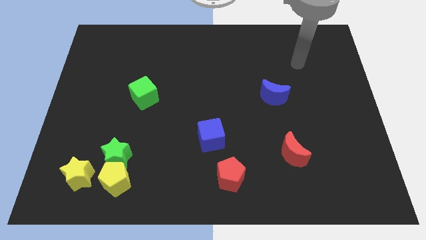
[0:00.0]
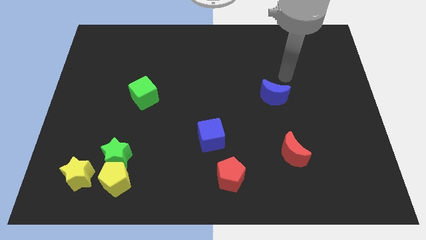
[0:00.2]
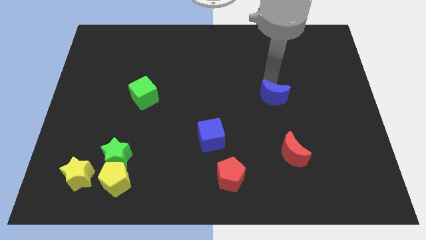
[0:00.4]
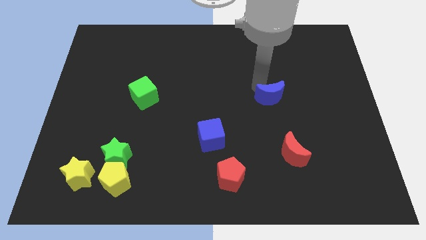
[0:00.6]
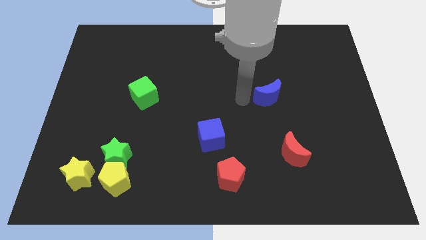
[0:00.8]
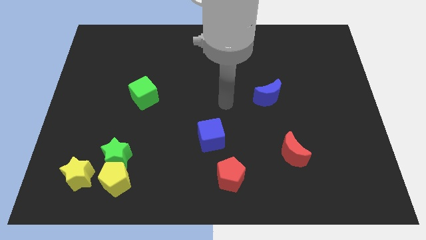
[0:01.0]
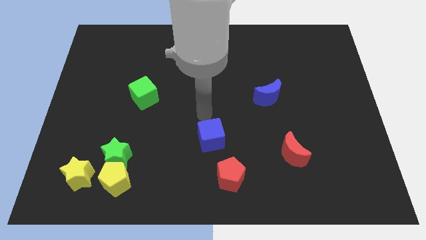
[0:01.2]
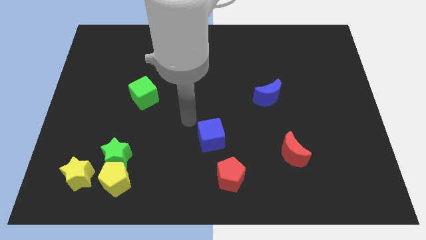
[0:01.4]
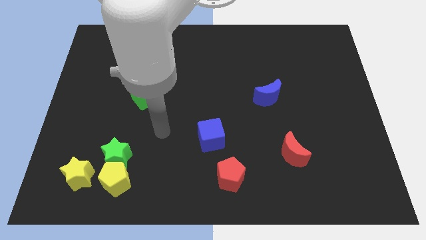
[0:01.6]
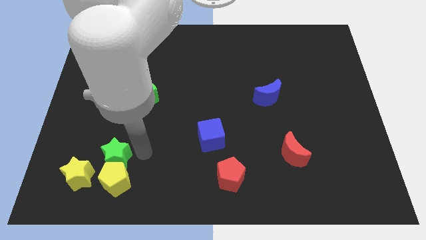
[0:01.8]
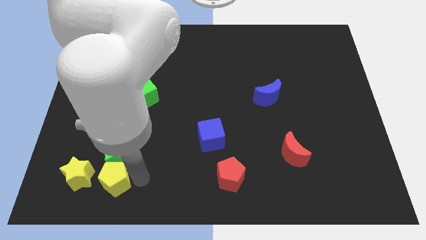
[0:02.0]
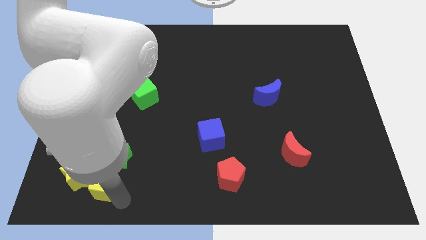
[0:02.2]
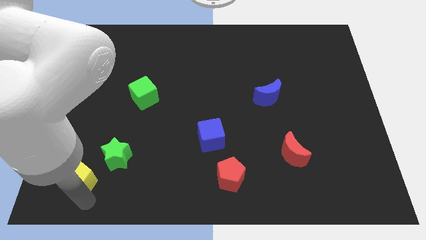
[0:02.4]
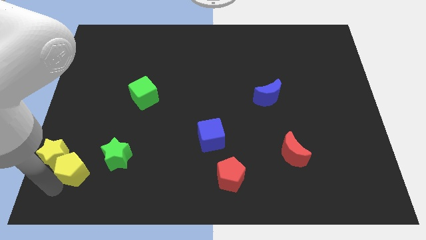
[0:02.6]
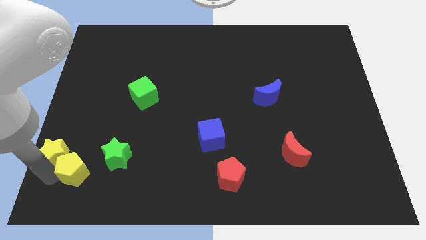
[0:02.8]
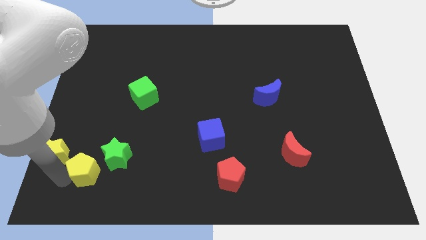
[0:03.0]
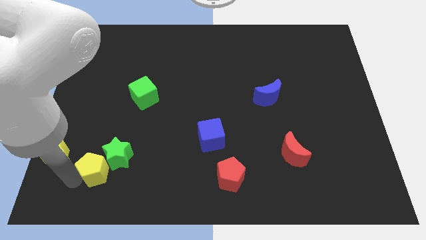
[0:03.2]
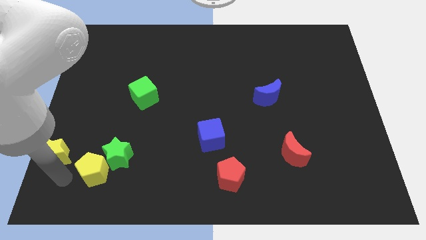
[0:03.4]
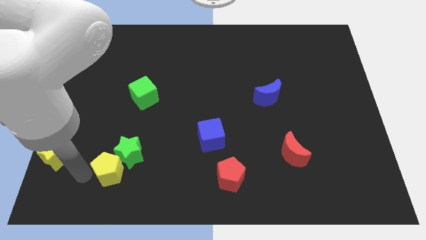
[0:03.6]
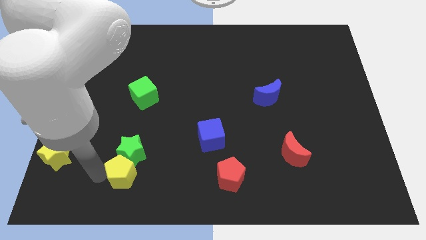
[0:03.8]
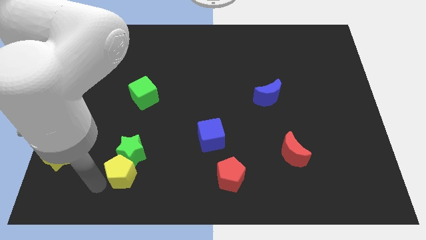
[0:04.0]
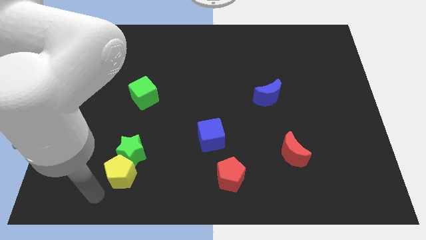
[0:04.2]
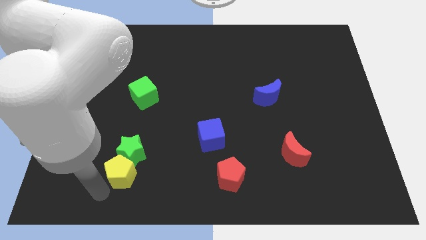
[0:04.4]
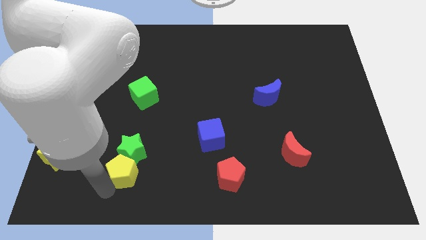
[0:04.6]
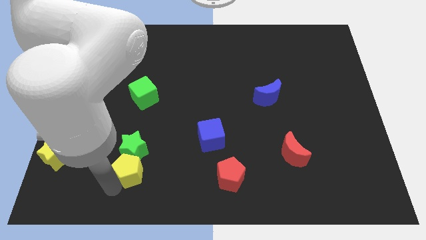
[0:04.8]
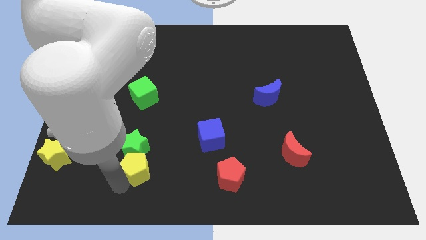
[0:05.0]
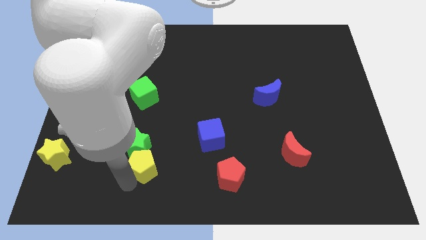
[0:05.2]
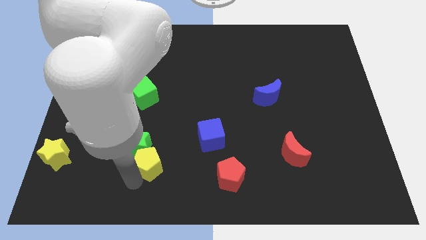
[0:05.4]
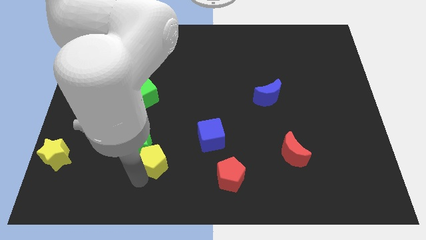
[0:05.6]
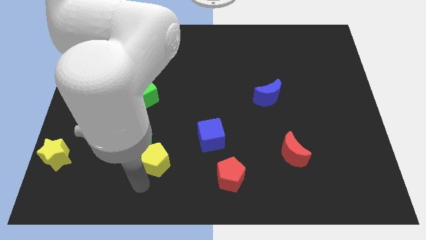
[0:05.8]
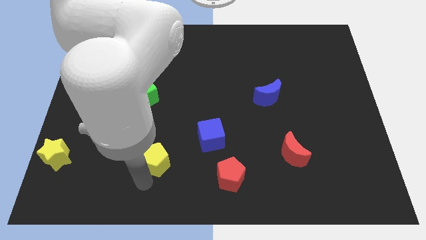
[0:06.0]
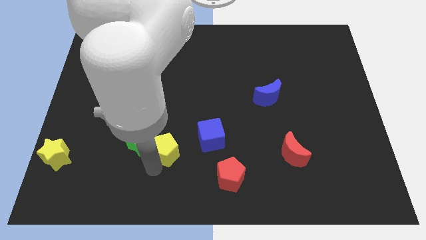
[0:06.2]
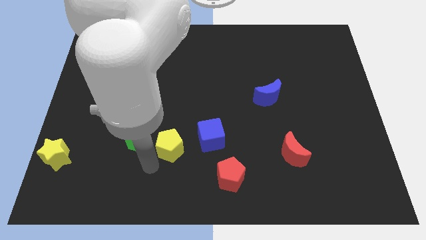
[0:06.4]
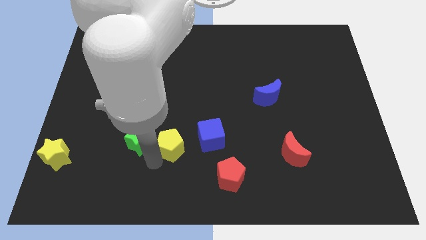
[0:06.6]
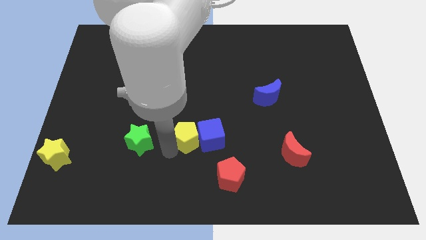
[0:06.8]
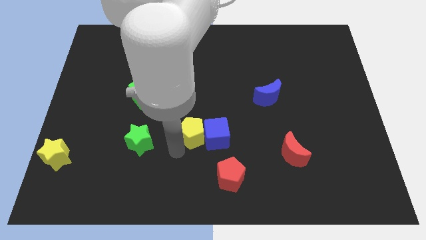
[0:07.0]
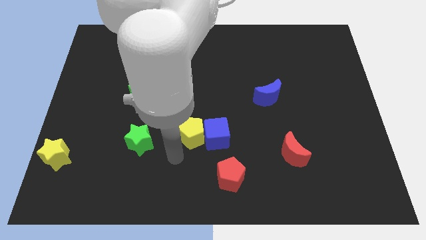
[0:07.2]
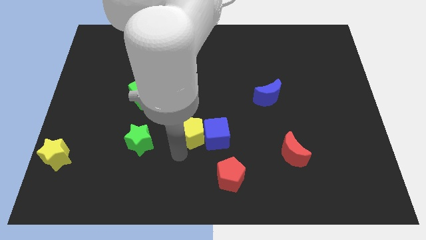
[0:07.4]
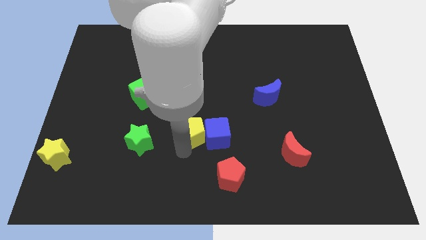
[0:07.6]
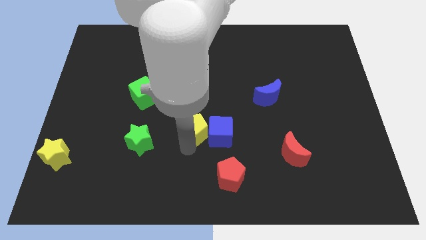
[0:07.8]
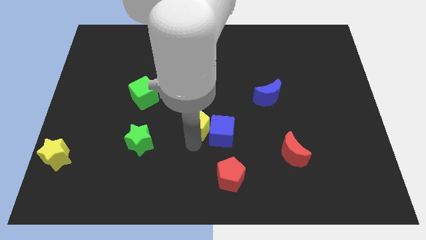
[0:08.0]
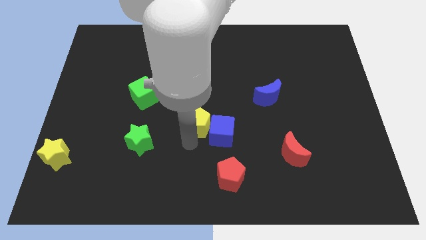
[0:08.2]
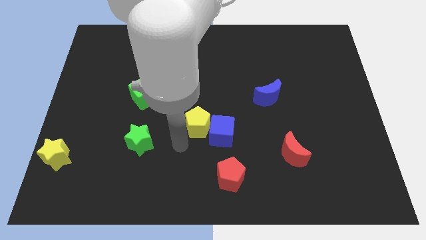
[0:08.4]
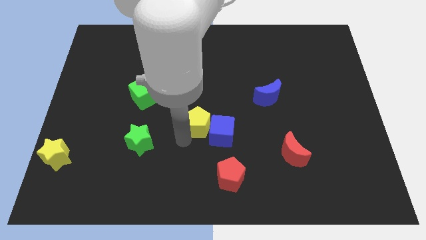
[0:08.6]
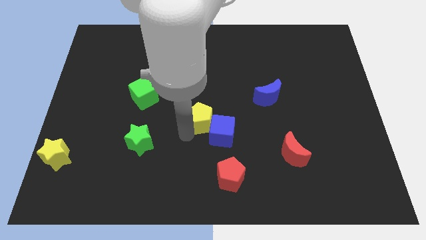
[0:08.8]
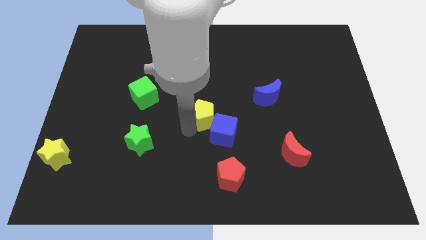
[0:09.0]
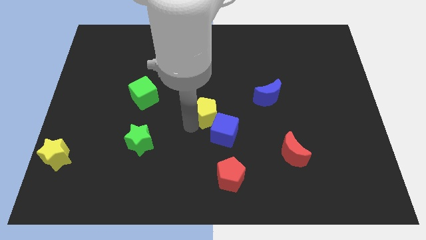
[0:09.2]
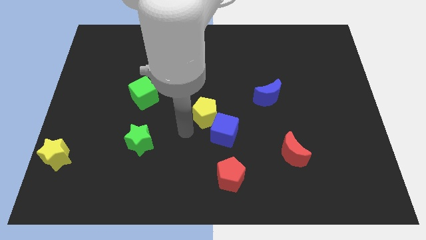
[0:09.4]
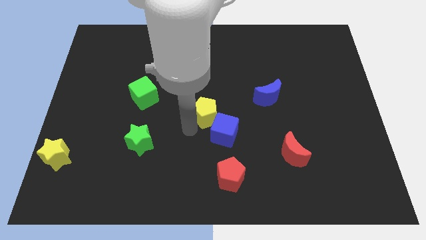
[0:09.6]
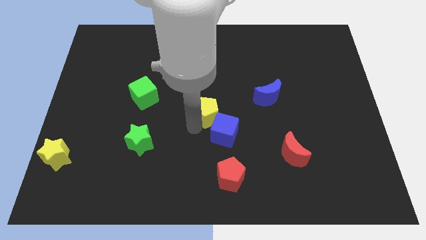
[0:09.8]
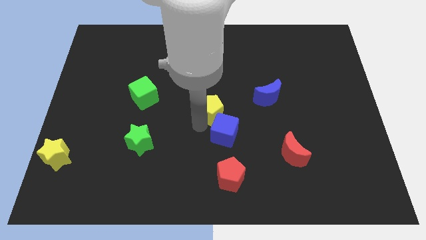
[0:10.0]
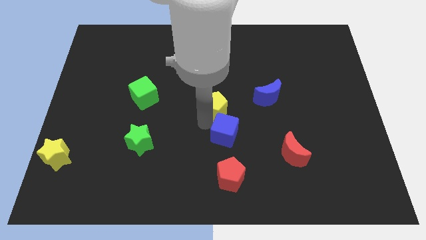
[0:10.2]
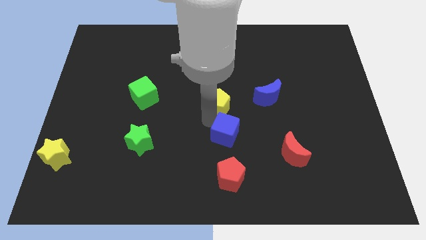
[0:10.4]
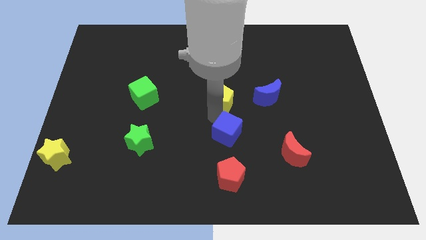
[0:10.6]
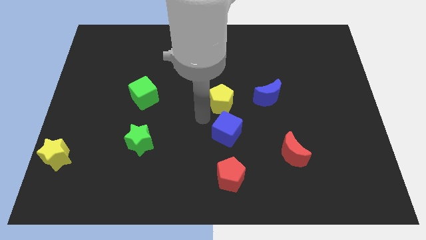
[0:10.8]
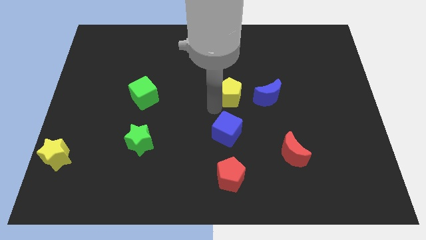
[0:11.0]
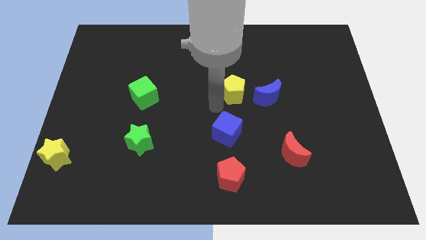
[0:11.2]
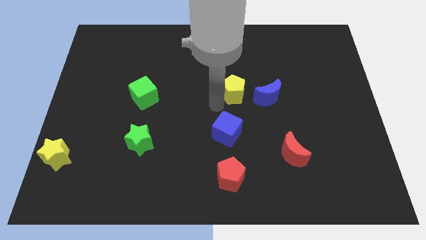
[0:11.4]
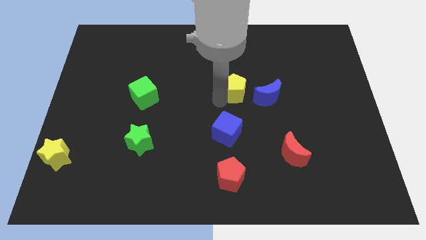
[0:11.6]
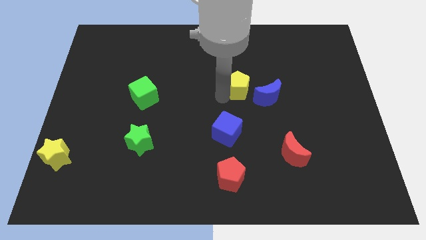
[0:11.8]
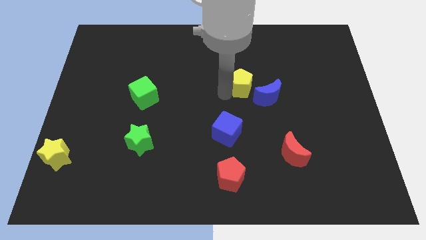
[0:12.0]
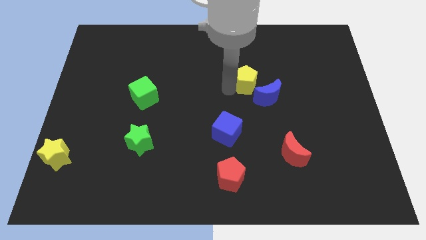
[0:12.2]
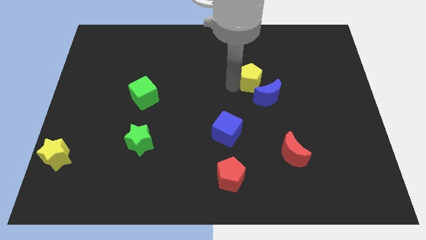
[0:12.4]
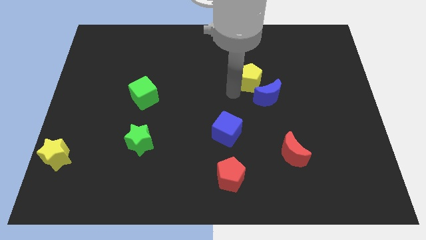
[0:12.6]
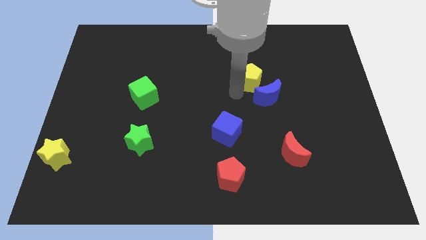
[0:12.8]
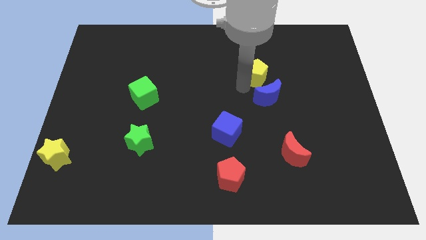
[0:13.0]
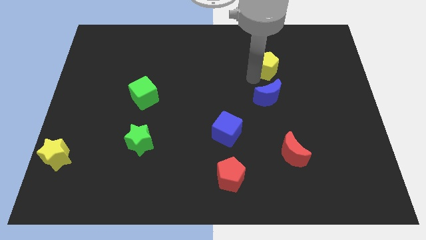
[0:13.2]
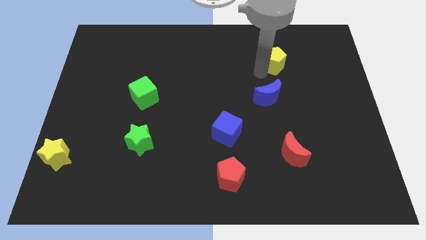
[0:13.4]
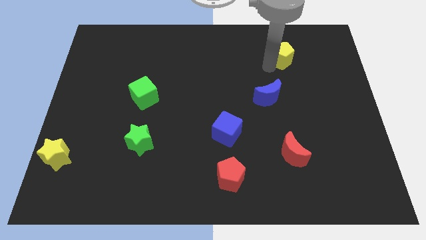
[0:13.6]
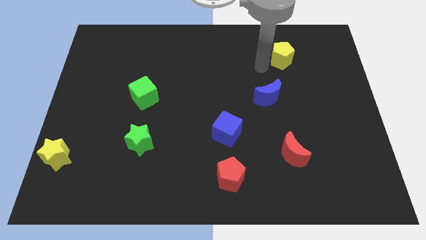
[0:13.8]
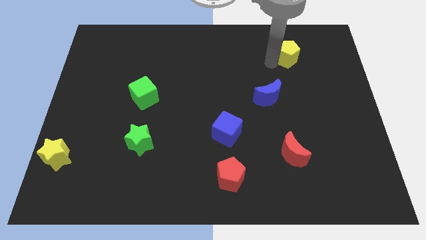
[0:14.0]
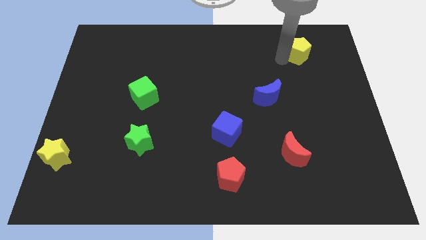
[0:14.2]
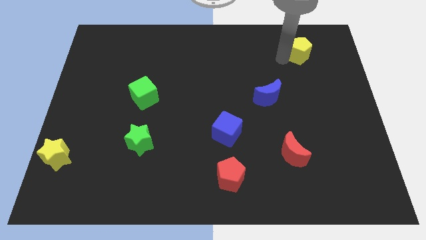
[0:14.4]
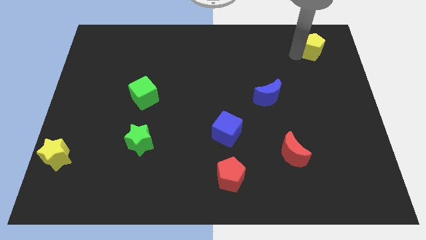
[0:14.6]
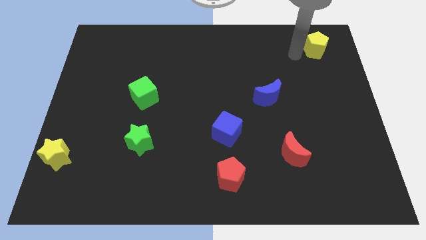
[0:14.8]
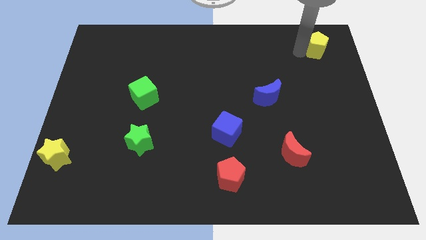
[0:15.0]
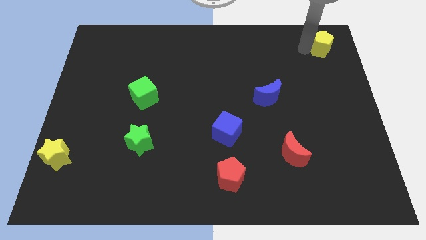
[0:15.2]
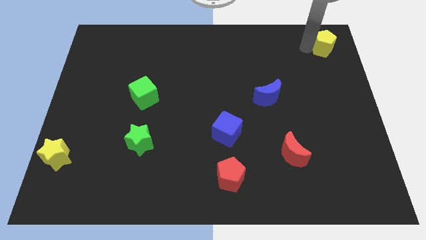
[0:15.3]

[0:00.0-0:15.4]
put the yellow pentagon to the top right of the board
